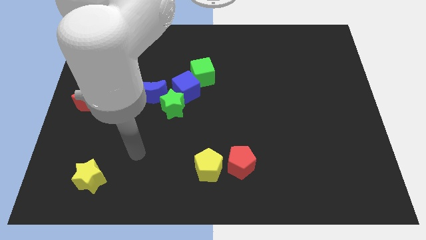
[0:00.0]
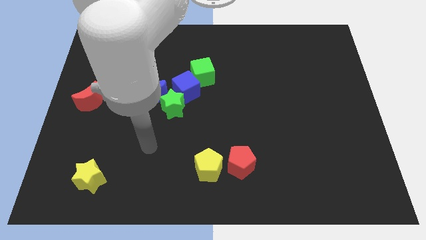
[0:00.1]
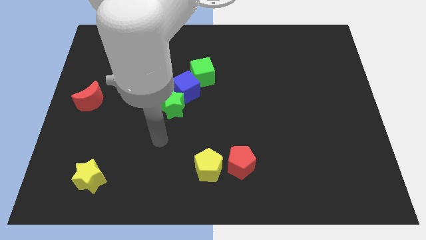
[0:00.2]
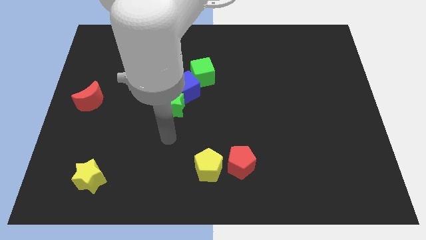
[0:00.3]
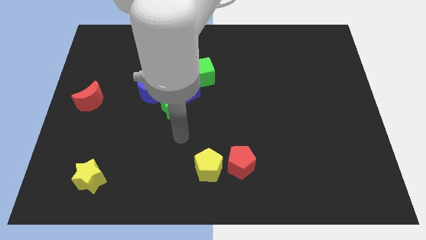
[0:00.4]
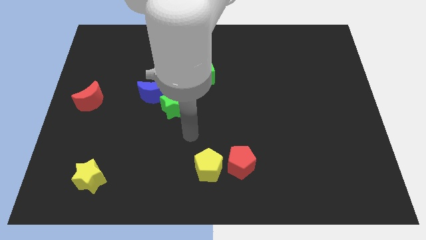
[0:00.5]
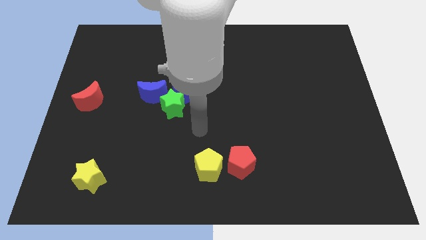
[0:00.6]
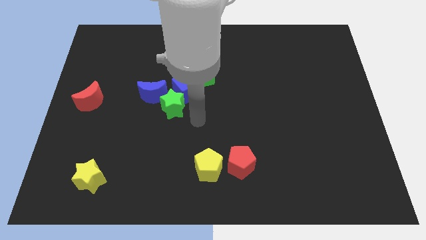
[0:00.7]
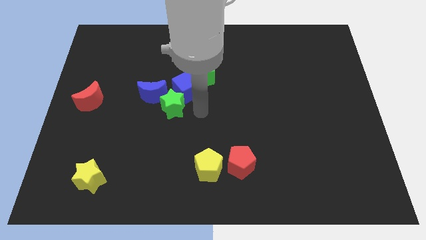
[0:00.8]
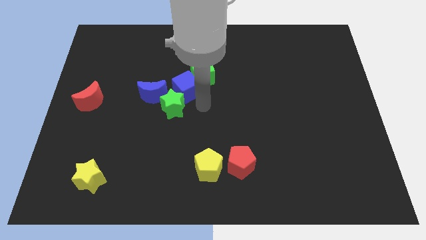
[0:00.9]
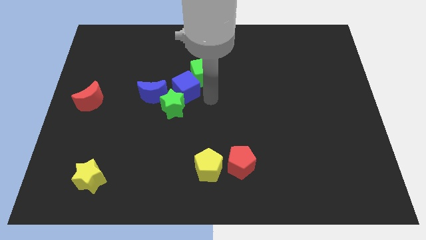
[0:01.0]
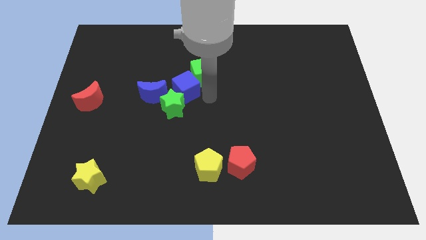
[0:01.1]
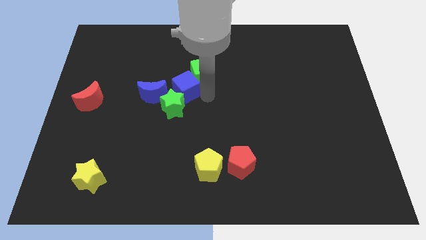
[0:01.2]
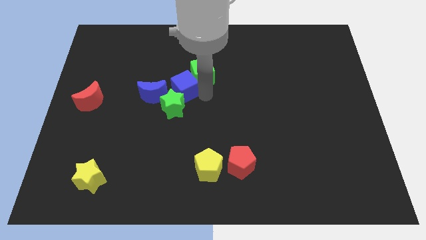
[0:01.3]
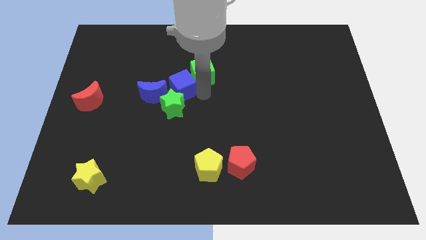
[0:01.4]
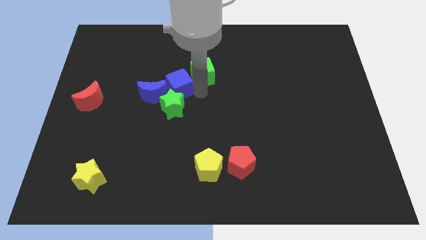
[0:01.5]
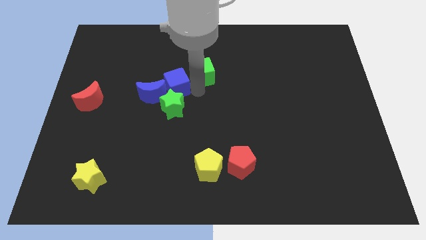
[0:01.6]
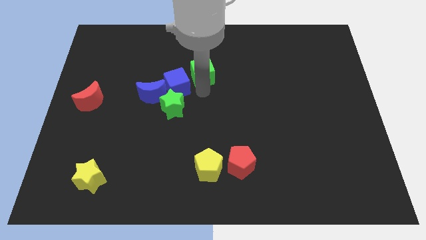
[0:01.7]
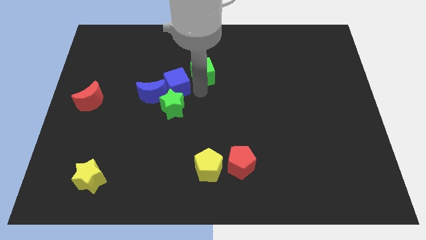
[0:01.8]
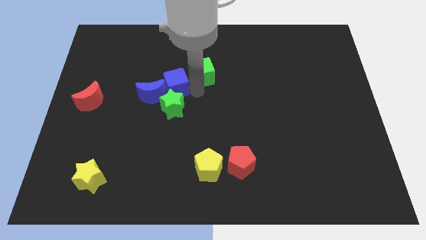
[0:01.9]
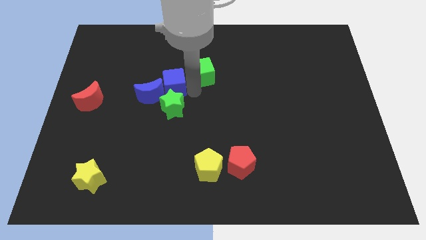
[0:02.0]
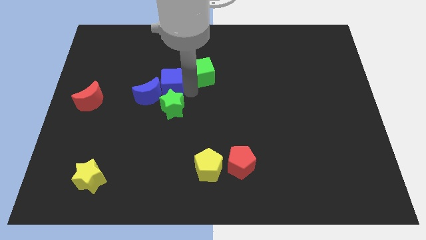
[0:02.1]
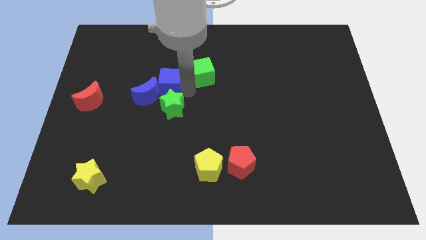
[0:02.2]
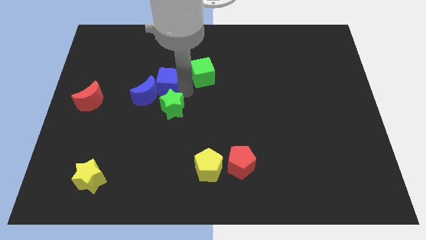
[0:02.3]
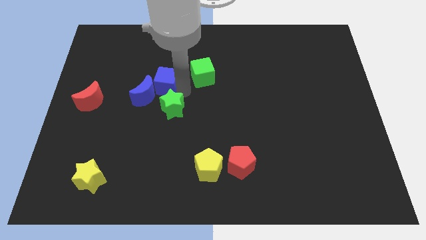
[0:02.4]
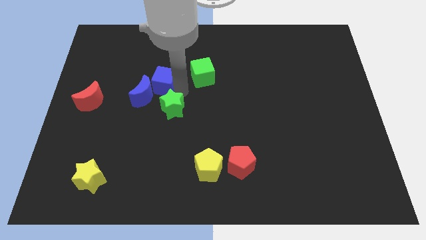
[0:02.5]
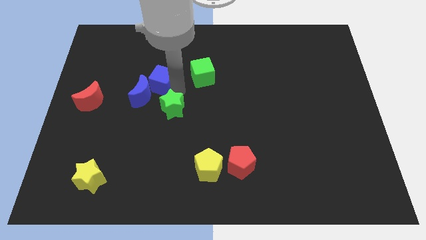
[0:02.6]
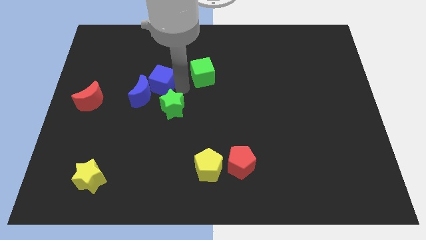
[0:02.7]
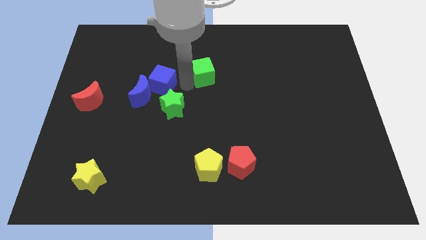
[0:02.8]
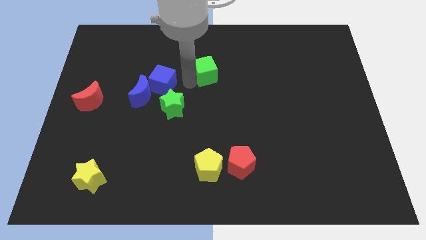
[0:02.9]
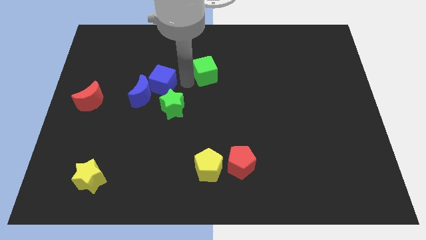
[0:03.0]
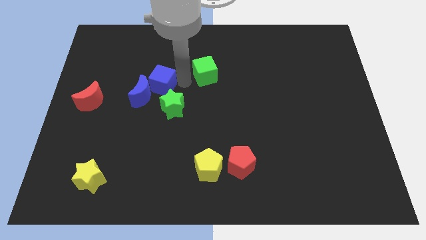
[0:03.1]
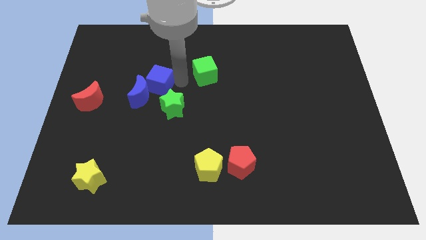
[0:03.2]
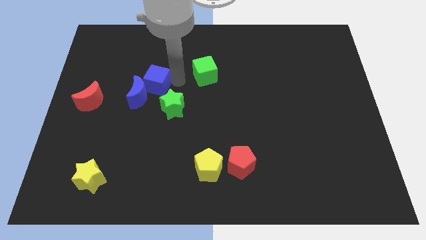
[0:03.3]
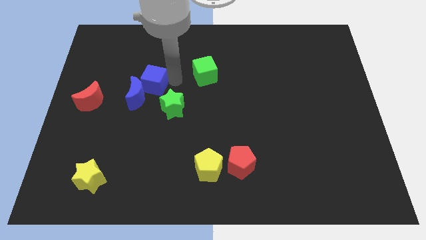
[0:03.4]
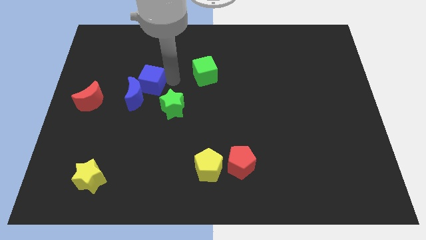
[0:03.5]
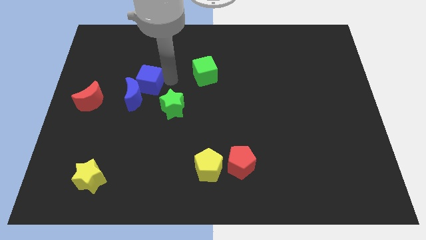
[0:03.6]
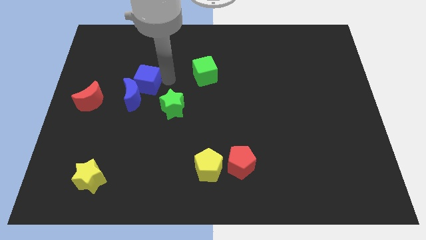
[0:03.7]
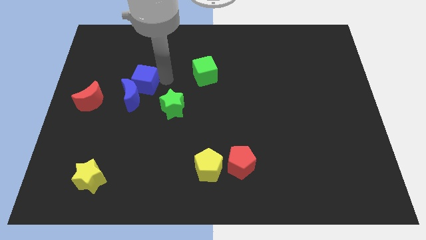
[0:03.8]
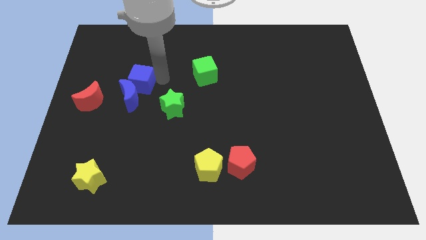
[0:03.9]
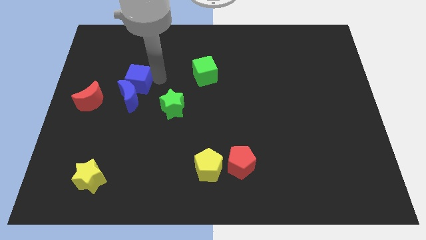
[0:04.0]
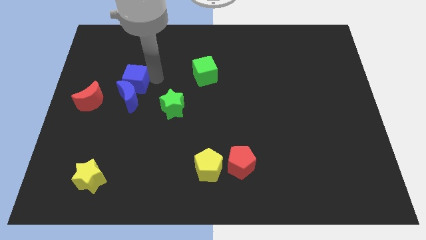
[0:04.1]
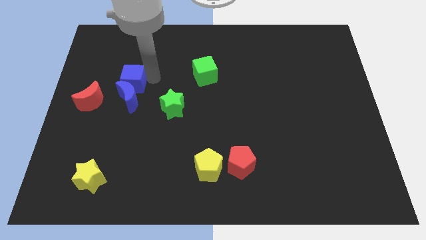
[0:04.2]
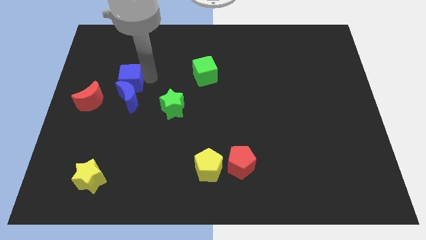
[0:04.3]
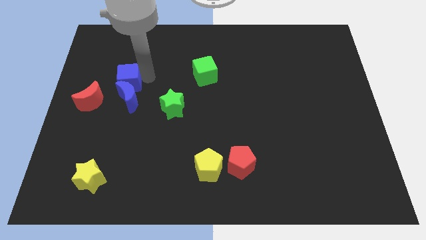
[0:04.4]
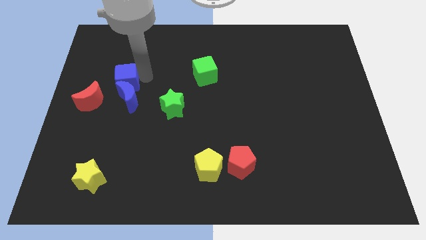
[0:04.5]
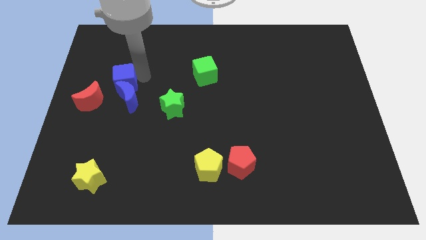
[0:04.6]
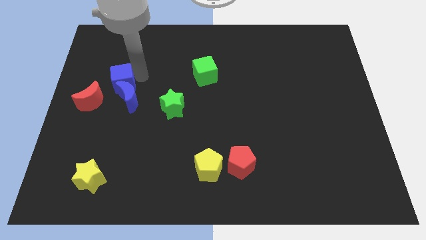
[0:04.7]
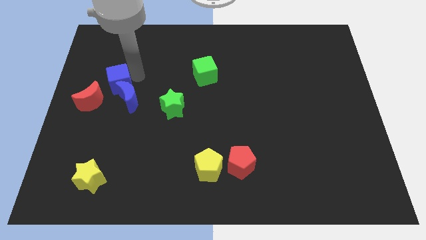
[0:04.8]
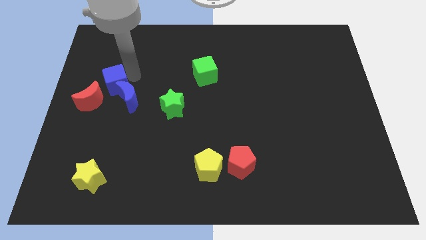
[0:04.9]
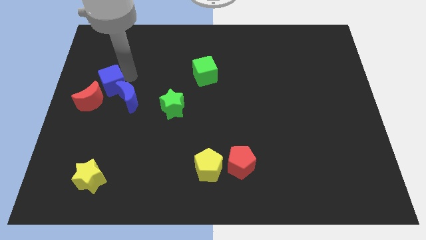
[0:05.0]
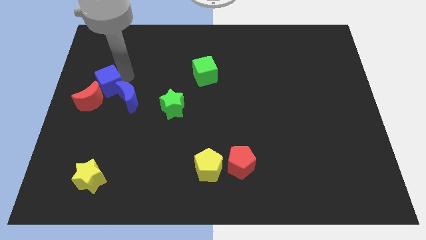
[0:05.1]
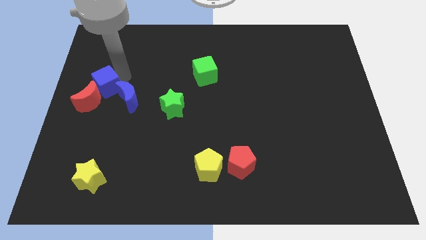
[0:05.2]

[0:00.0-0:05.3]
slide the blue cube next to the red moon

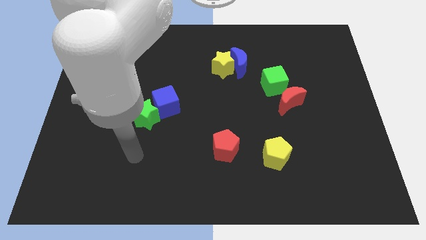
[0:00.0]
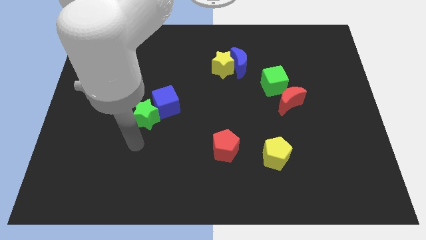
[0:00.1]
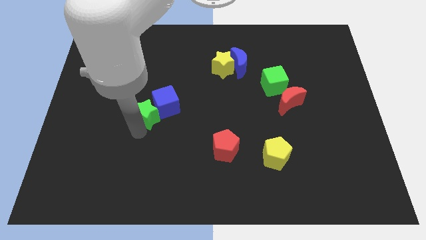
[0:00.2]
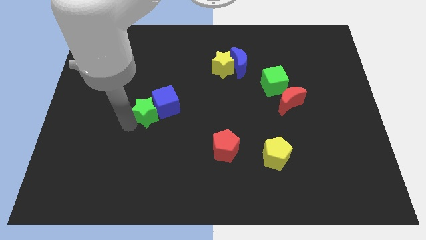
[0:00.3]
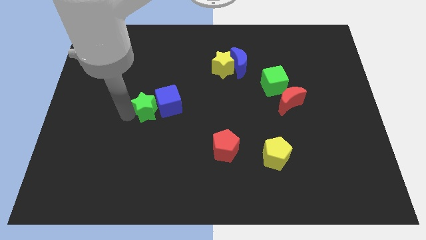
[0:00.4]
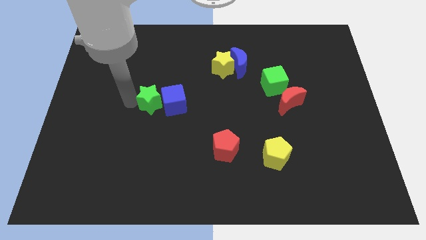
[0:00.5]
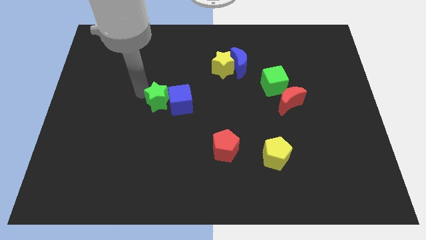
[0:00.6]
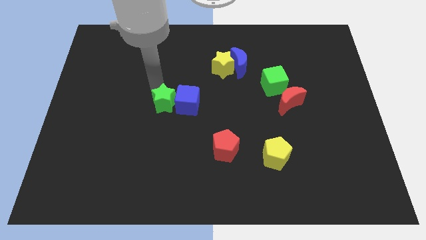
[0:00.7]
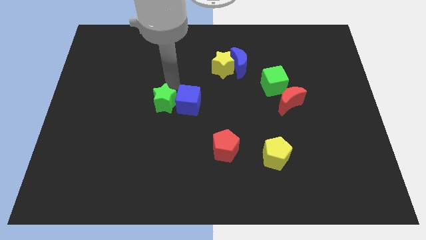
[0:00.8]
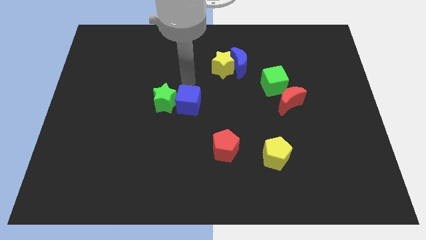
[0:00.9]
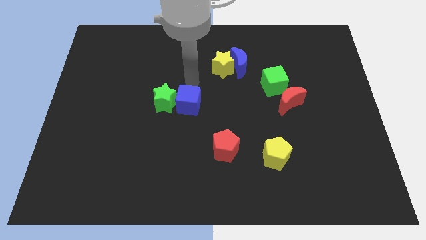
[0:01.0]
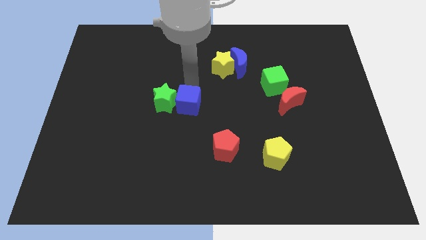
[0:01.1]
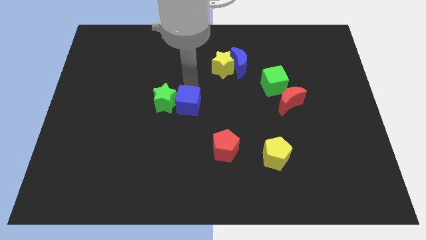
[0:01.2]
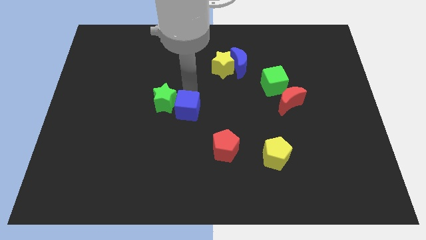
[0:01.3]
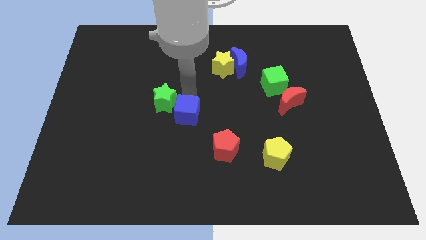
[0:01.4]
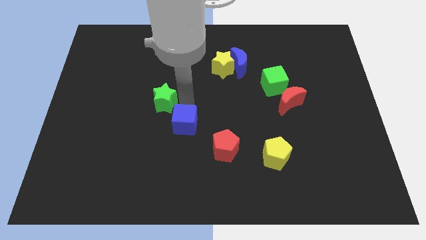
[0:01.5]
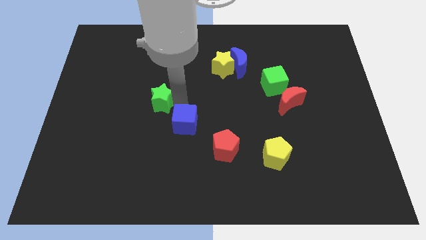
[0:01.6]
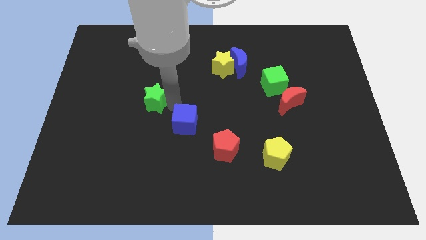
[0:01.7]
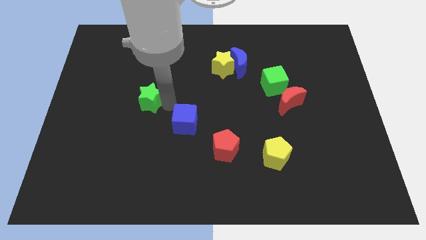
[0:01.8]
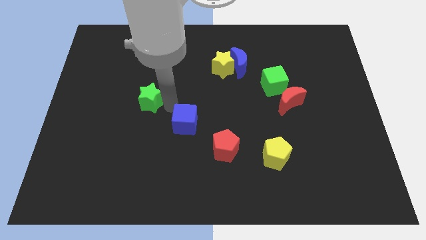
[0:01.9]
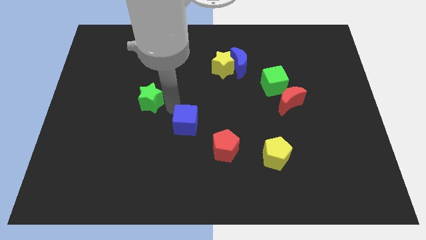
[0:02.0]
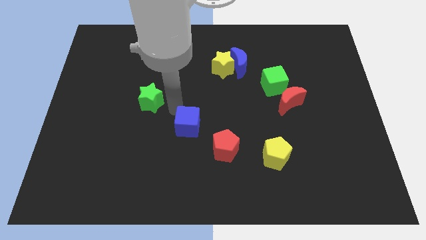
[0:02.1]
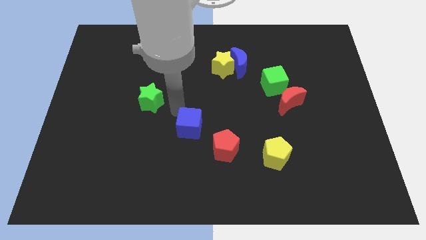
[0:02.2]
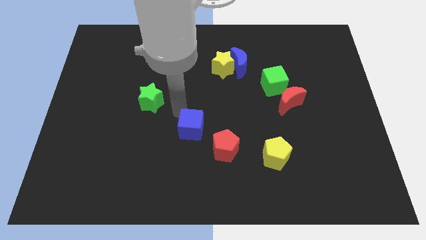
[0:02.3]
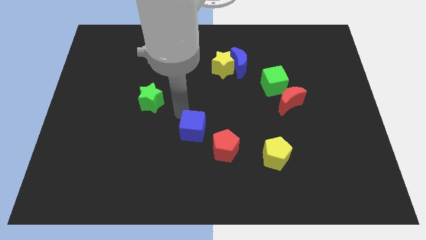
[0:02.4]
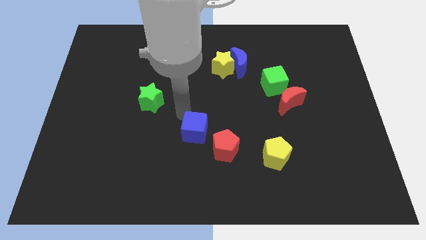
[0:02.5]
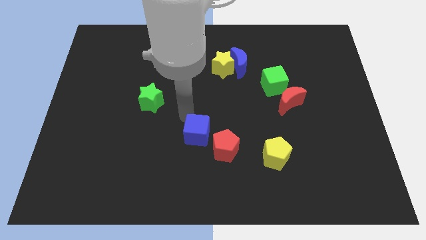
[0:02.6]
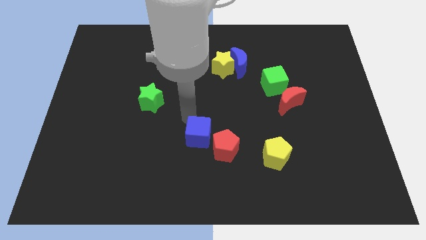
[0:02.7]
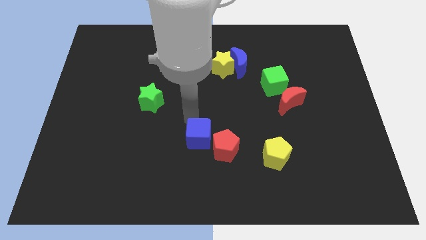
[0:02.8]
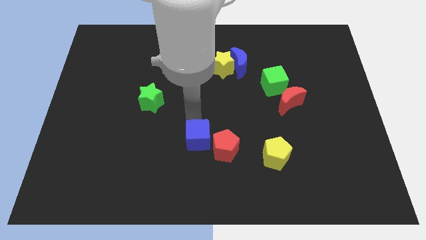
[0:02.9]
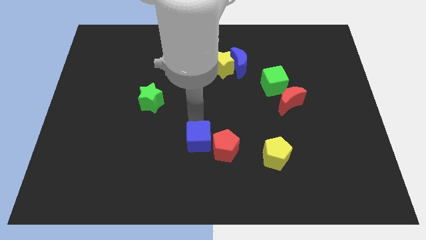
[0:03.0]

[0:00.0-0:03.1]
push the blue cube towards the red pentagon
